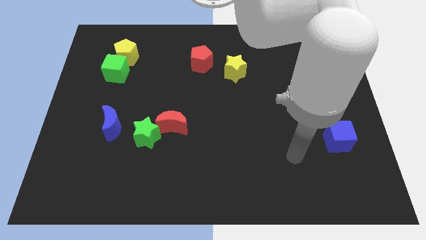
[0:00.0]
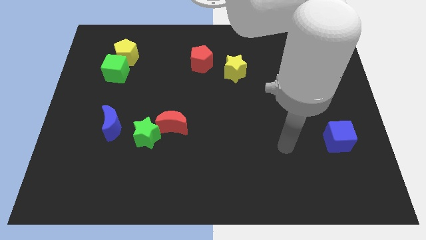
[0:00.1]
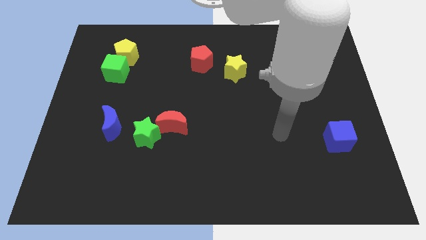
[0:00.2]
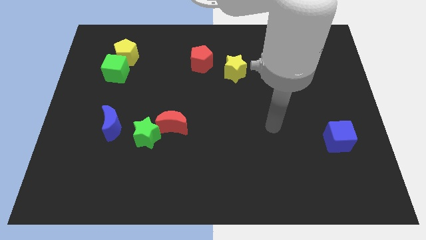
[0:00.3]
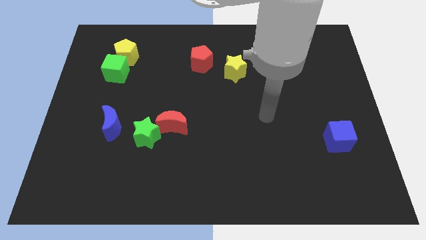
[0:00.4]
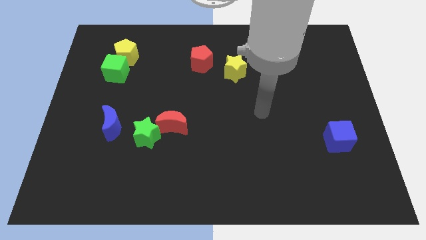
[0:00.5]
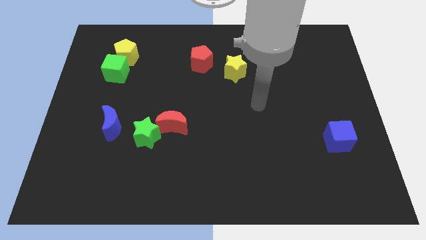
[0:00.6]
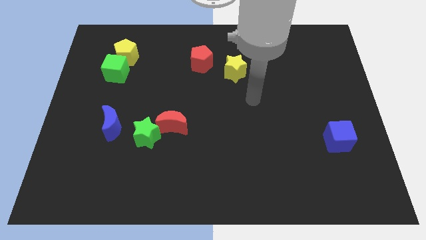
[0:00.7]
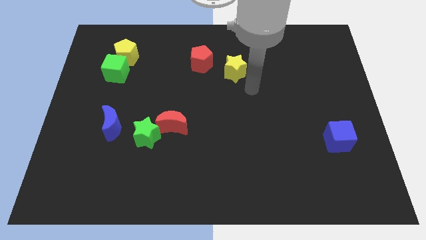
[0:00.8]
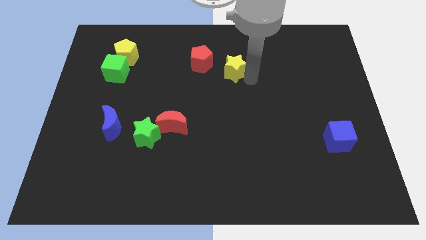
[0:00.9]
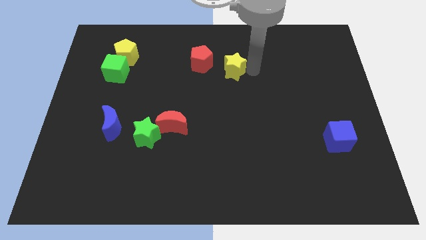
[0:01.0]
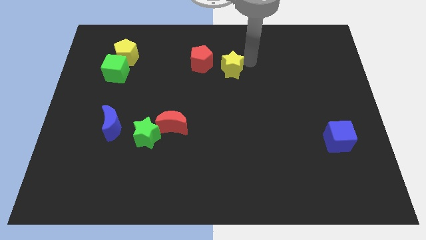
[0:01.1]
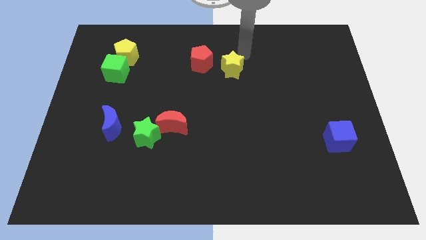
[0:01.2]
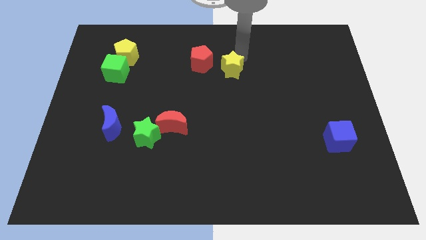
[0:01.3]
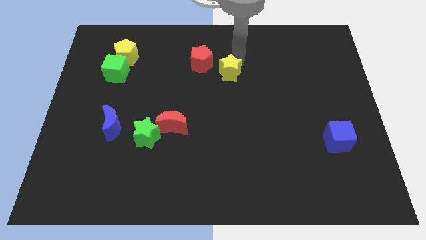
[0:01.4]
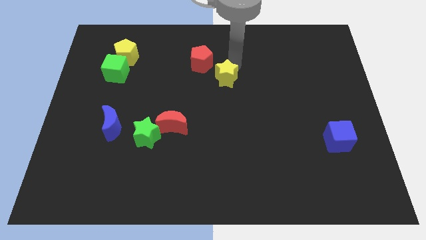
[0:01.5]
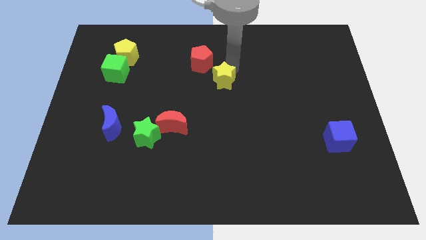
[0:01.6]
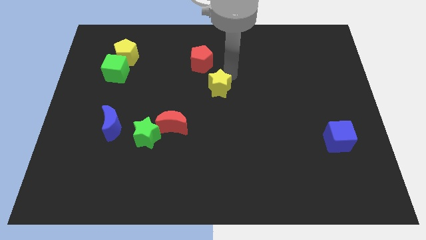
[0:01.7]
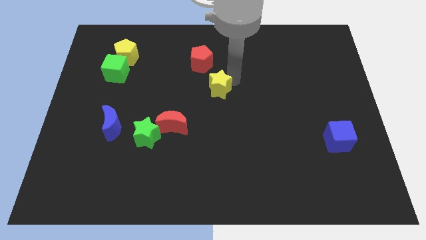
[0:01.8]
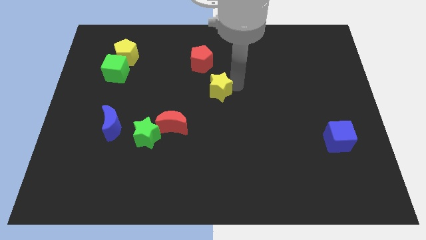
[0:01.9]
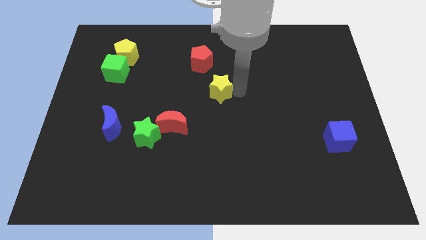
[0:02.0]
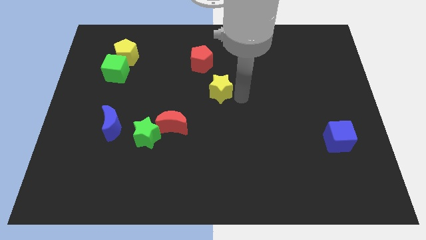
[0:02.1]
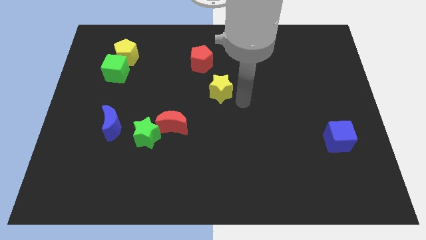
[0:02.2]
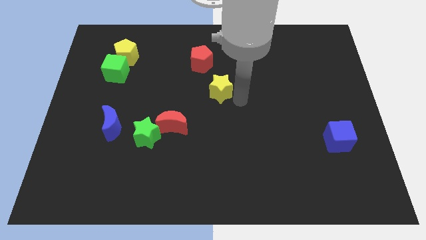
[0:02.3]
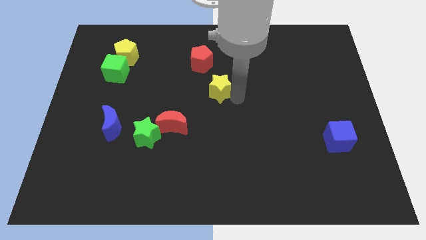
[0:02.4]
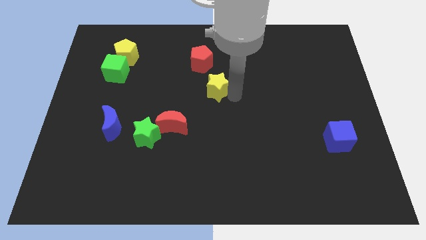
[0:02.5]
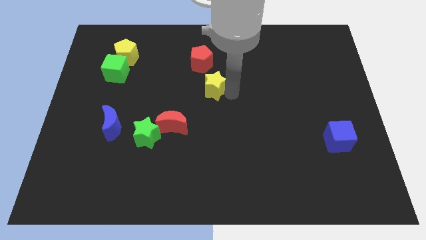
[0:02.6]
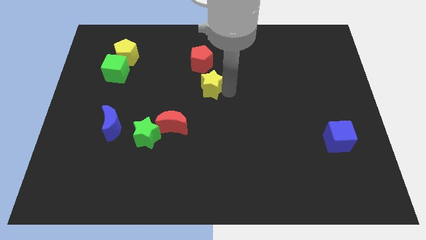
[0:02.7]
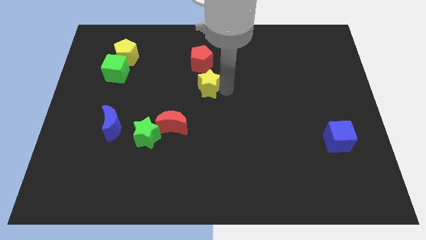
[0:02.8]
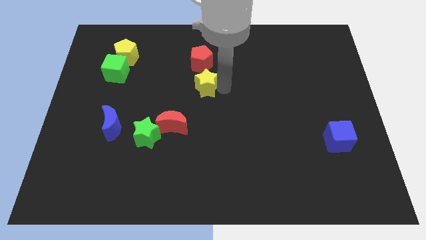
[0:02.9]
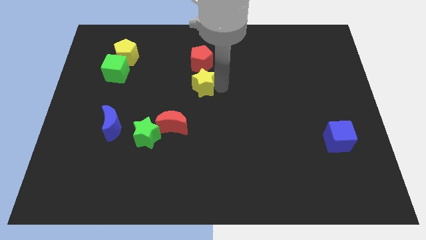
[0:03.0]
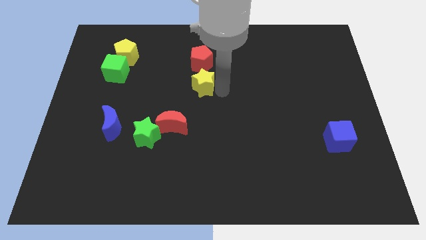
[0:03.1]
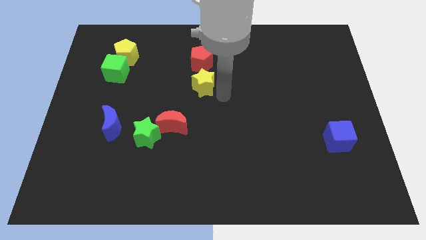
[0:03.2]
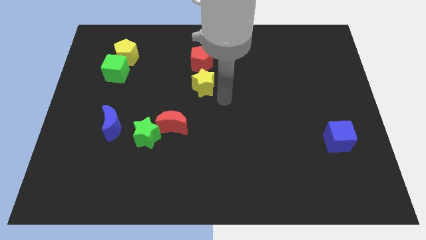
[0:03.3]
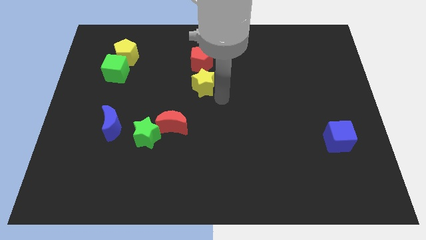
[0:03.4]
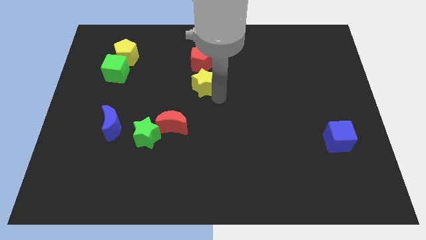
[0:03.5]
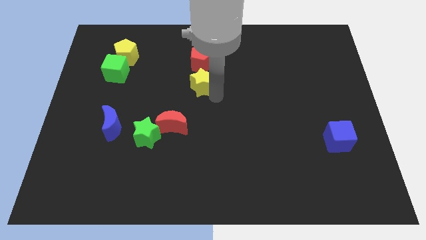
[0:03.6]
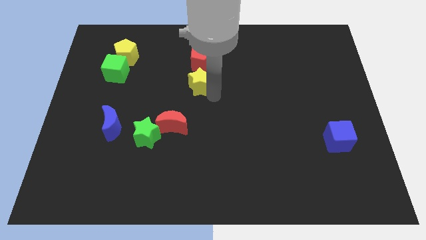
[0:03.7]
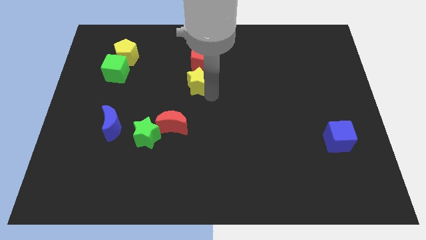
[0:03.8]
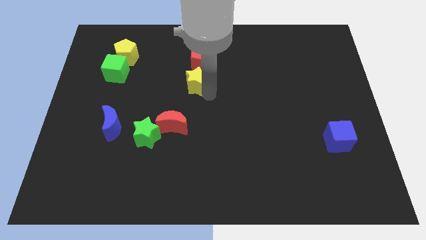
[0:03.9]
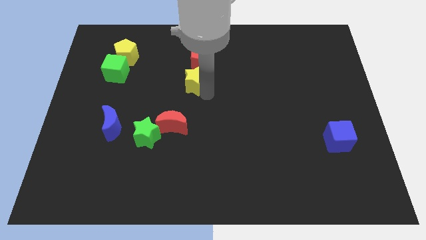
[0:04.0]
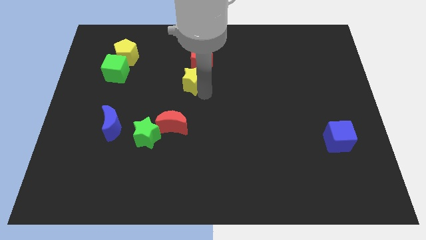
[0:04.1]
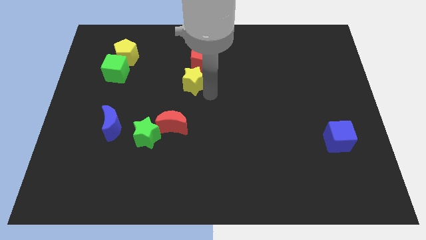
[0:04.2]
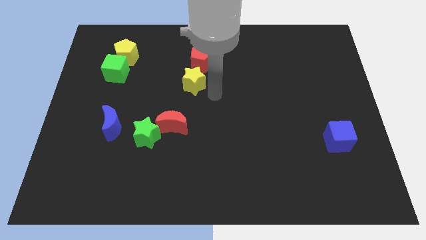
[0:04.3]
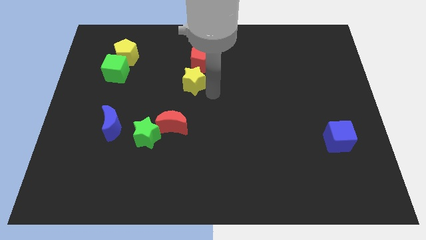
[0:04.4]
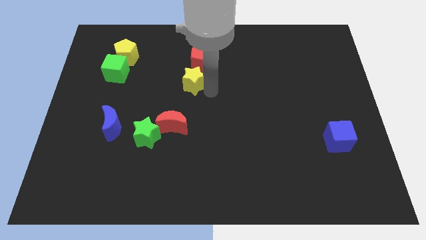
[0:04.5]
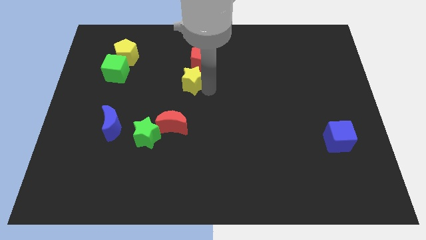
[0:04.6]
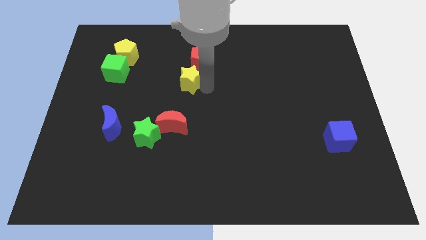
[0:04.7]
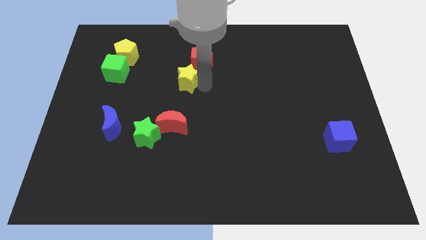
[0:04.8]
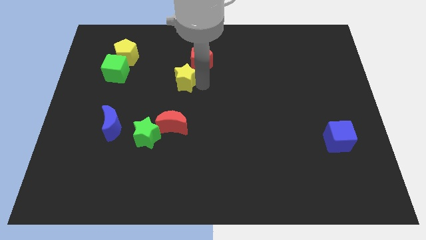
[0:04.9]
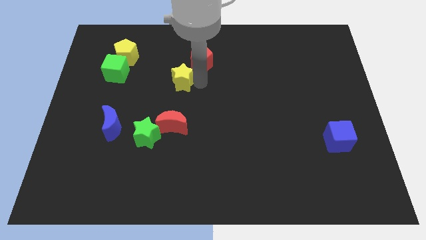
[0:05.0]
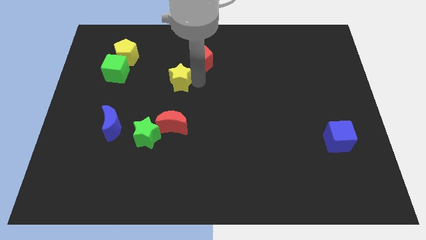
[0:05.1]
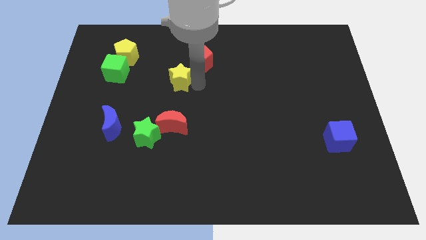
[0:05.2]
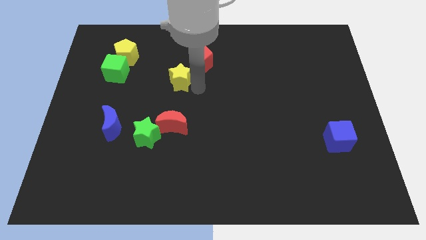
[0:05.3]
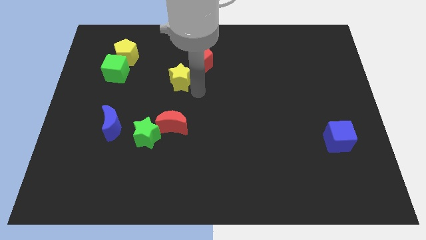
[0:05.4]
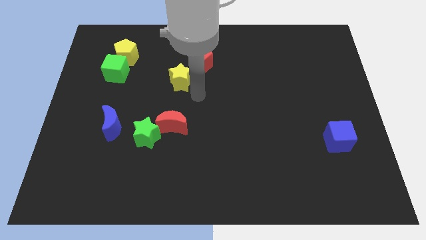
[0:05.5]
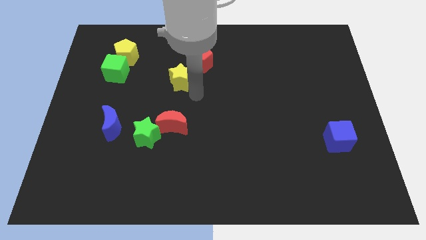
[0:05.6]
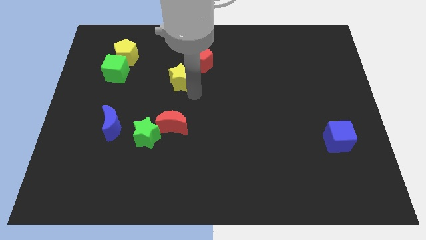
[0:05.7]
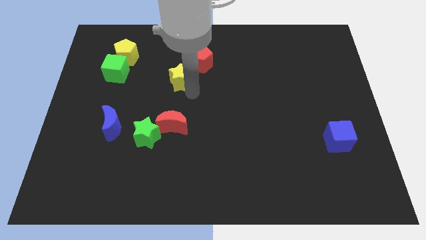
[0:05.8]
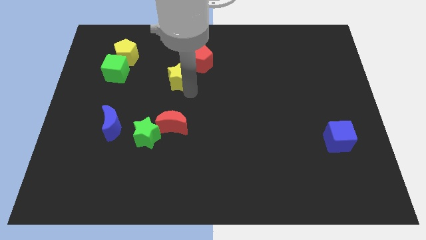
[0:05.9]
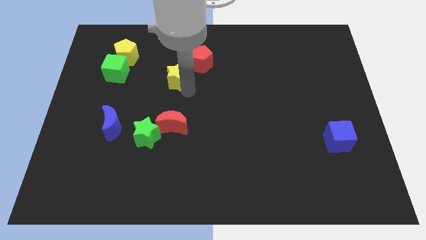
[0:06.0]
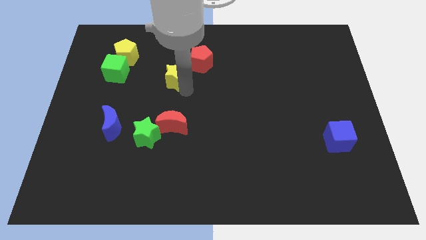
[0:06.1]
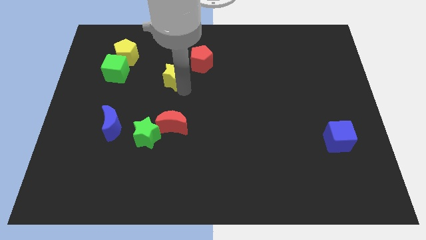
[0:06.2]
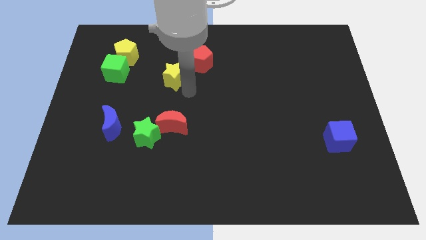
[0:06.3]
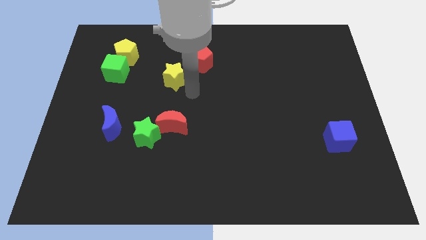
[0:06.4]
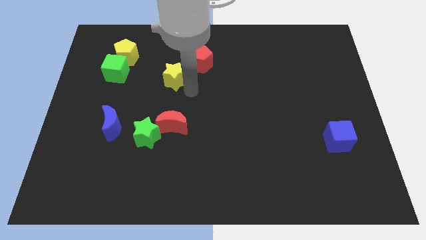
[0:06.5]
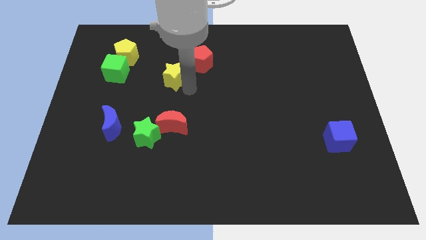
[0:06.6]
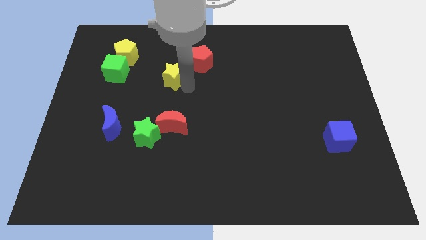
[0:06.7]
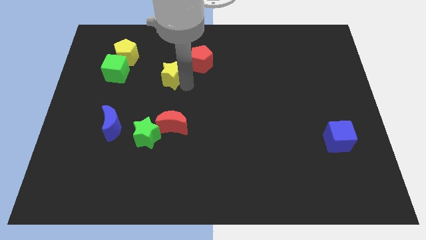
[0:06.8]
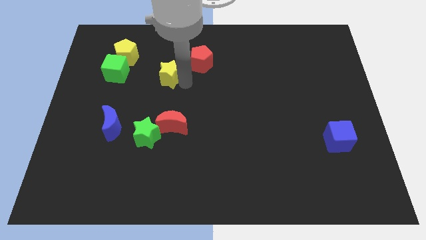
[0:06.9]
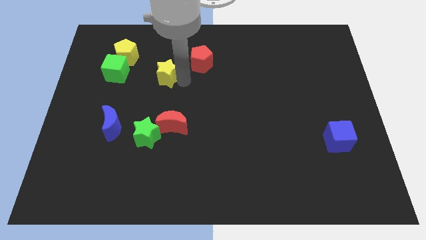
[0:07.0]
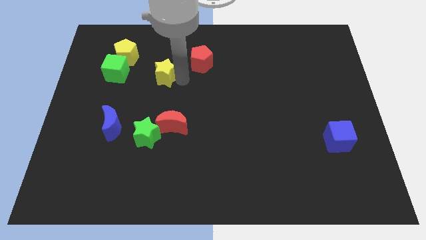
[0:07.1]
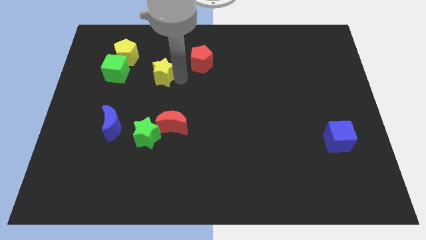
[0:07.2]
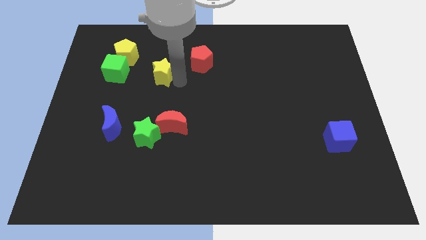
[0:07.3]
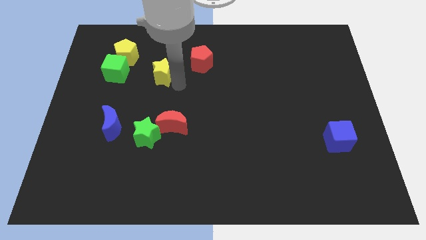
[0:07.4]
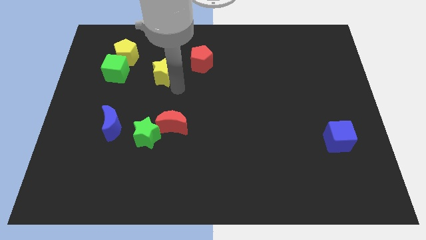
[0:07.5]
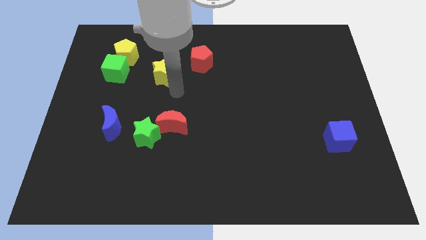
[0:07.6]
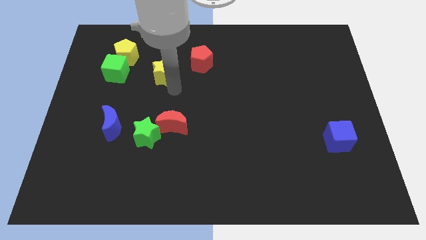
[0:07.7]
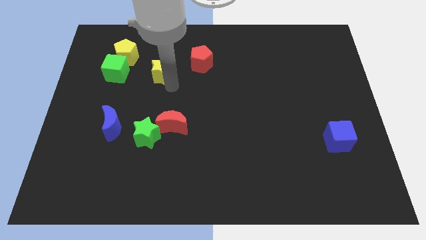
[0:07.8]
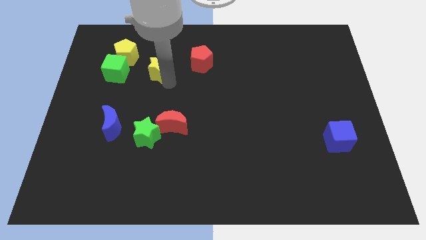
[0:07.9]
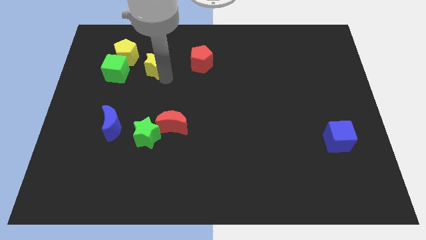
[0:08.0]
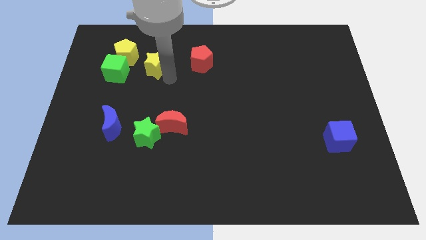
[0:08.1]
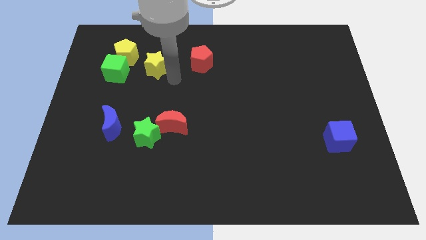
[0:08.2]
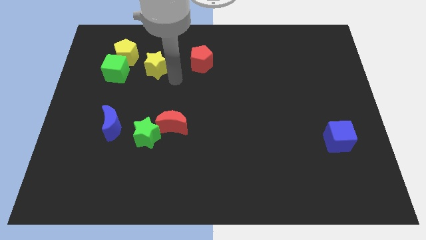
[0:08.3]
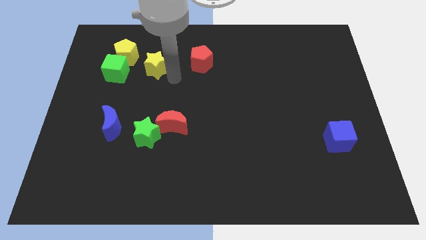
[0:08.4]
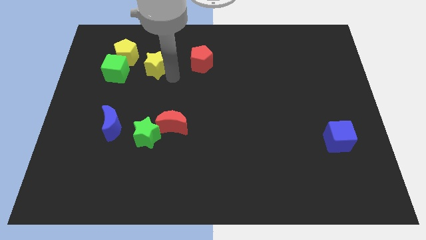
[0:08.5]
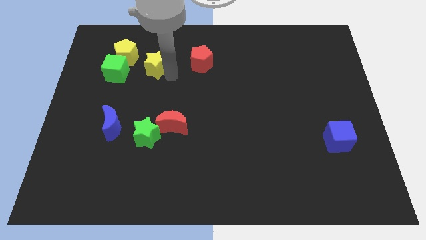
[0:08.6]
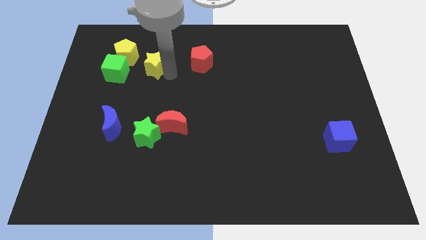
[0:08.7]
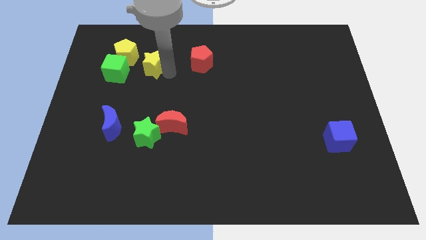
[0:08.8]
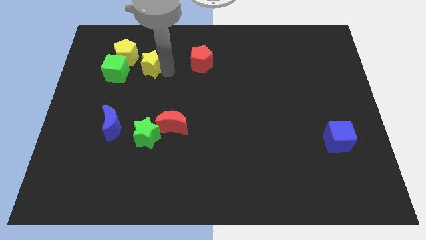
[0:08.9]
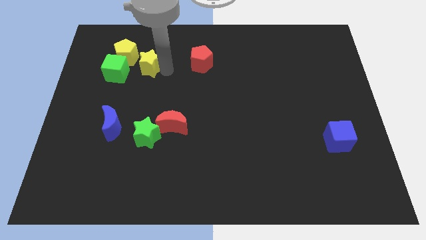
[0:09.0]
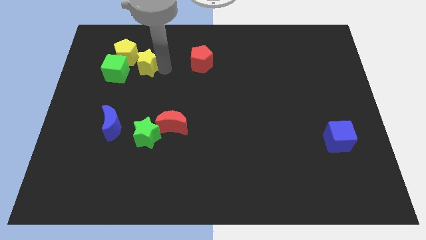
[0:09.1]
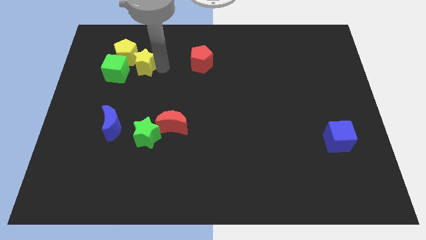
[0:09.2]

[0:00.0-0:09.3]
put the yellow star next to the yellow pentagon
